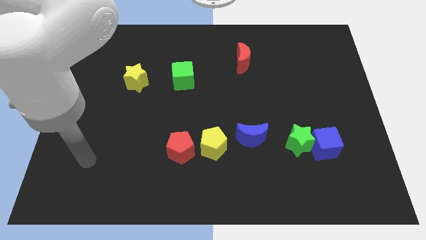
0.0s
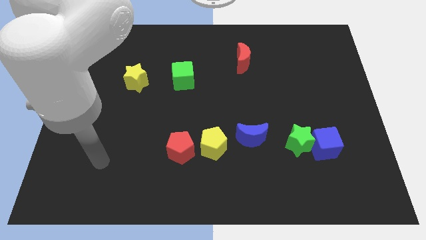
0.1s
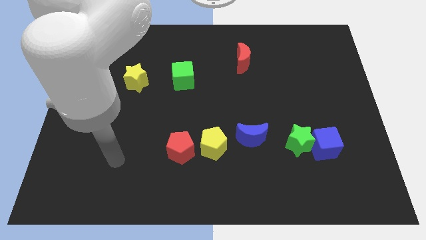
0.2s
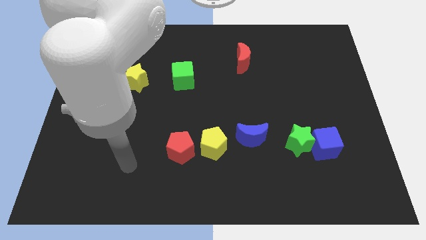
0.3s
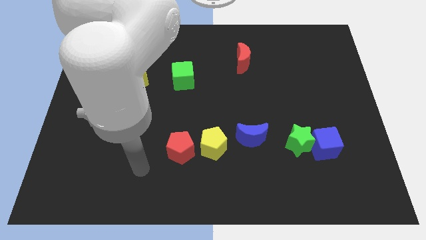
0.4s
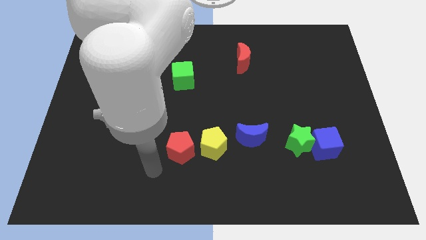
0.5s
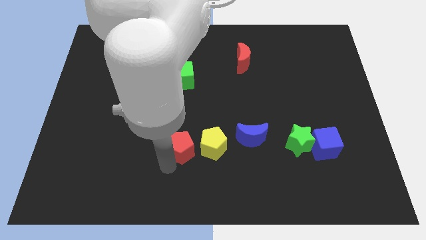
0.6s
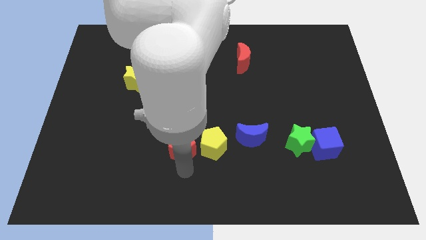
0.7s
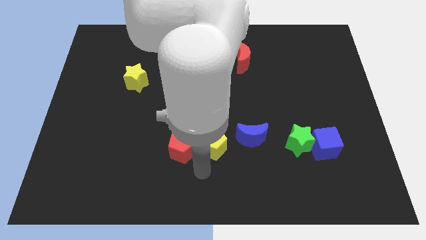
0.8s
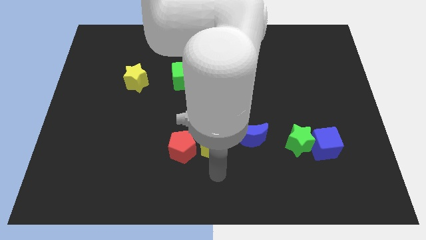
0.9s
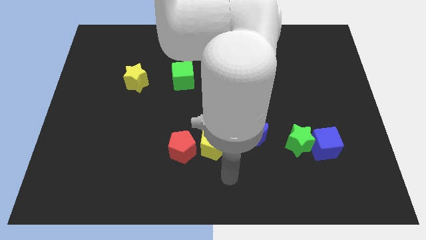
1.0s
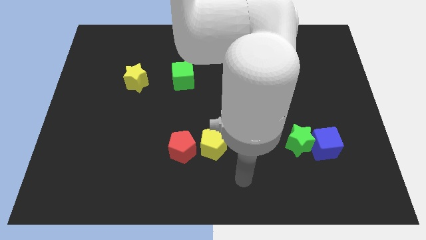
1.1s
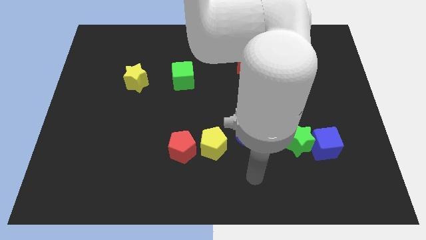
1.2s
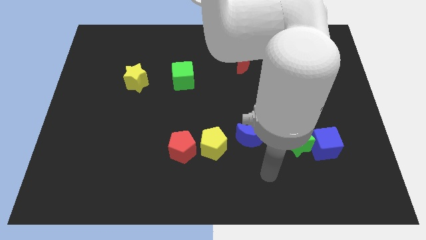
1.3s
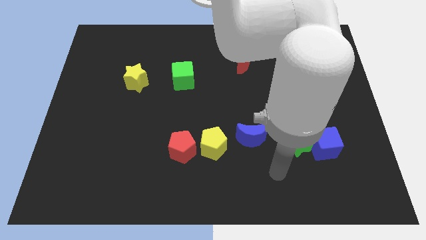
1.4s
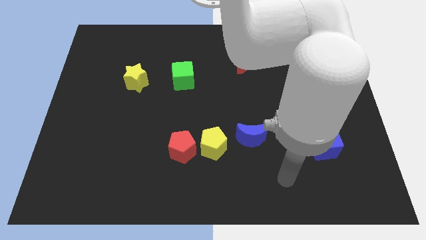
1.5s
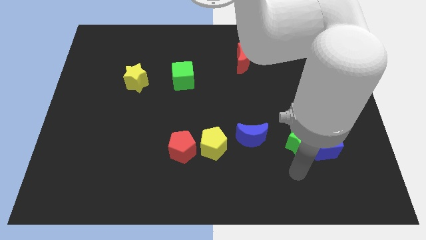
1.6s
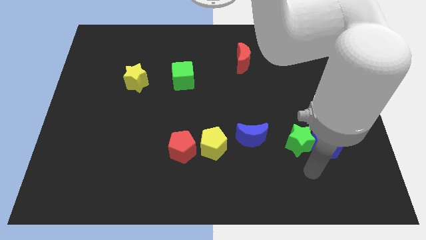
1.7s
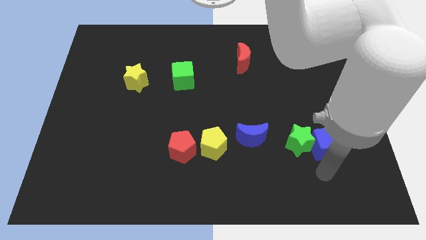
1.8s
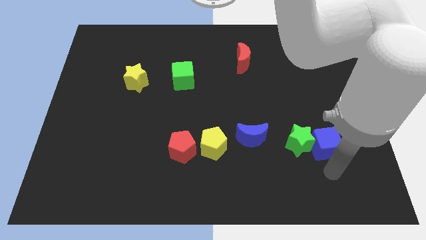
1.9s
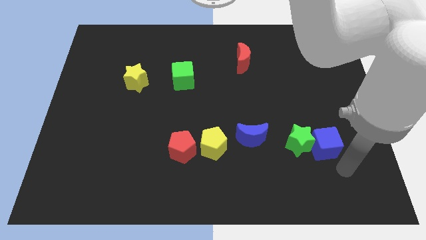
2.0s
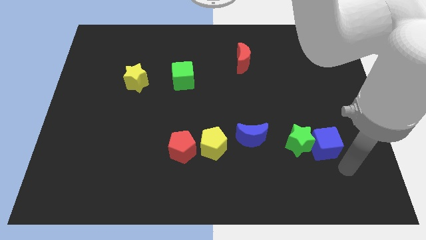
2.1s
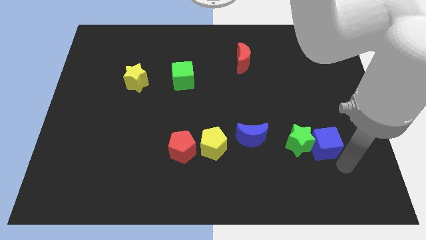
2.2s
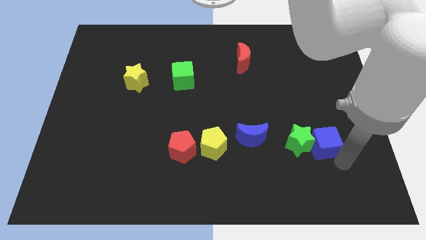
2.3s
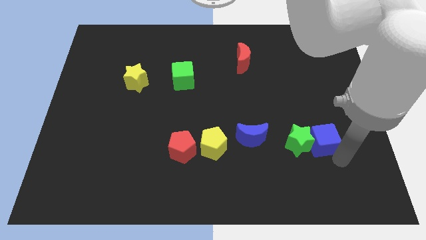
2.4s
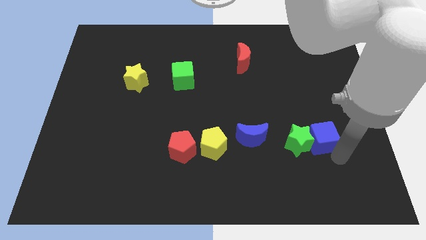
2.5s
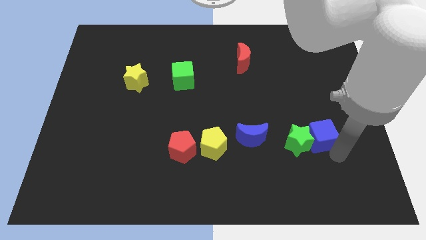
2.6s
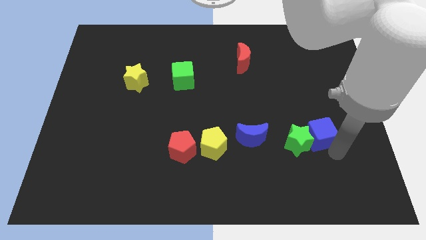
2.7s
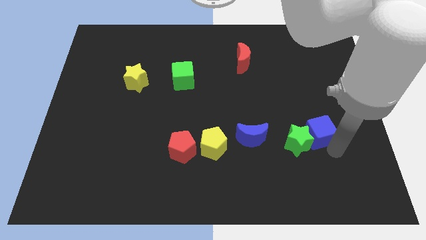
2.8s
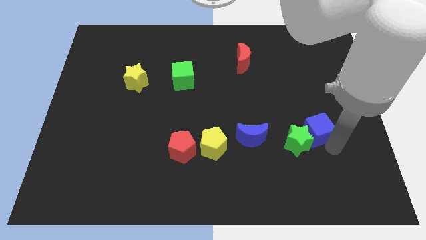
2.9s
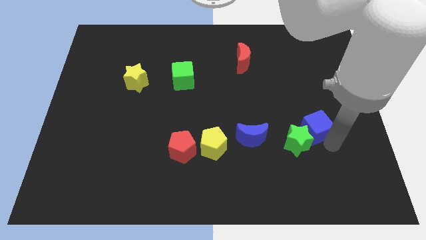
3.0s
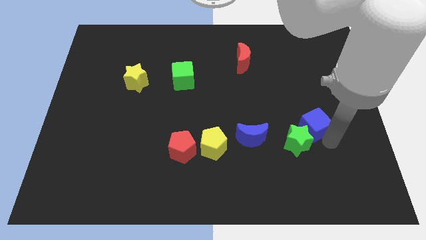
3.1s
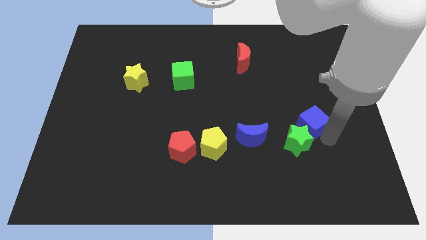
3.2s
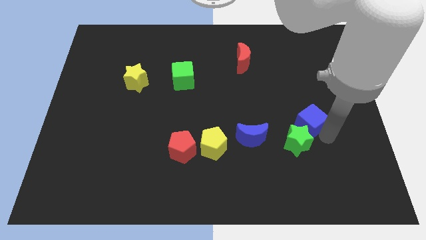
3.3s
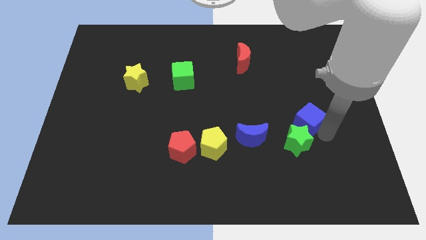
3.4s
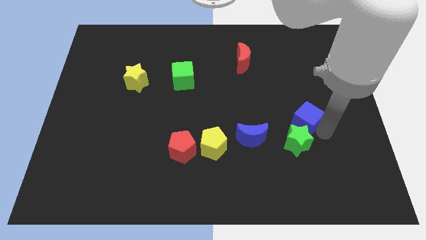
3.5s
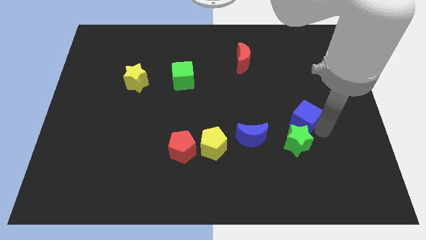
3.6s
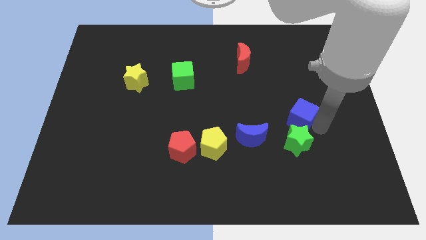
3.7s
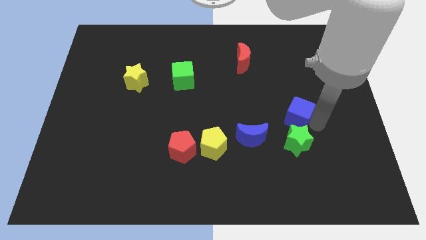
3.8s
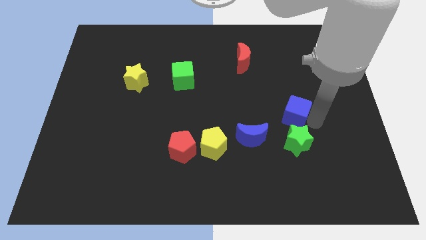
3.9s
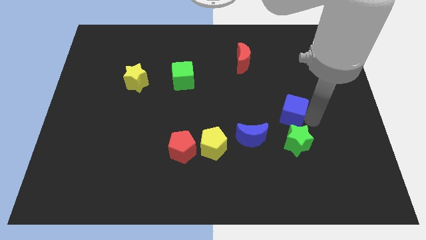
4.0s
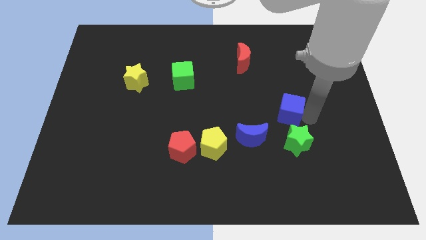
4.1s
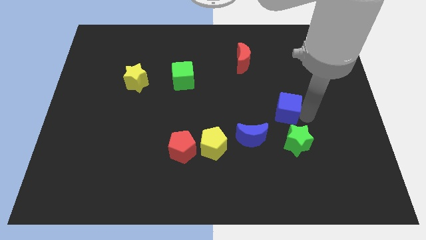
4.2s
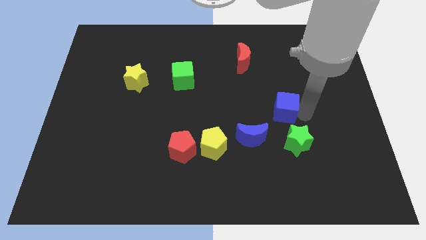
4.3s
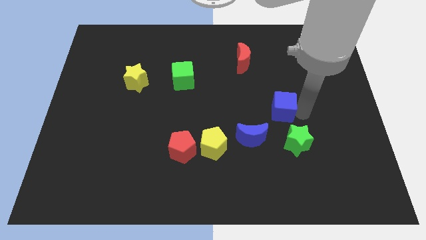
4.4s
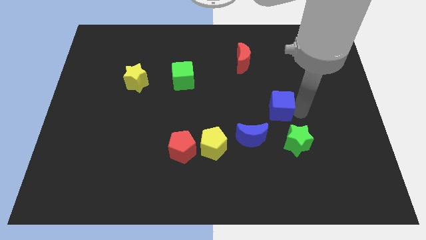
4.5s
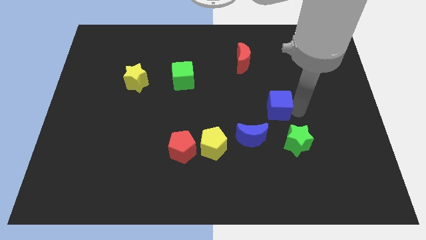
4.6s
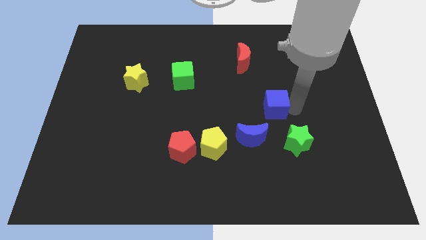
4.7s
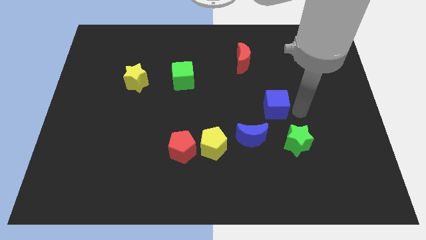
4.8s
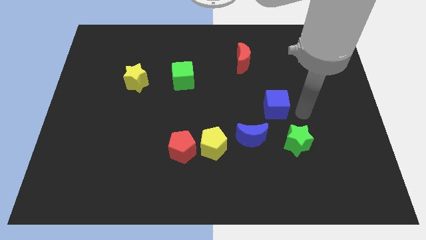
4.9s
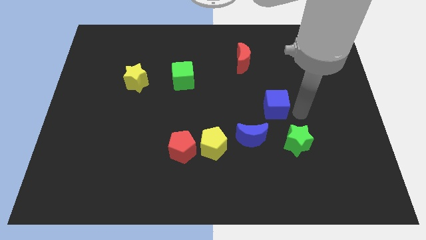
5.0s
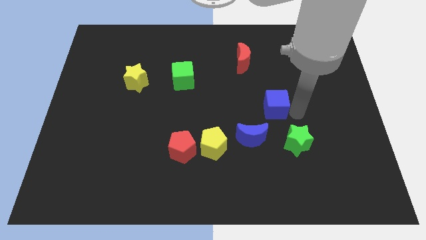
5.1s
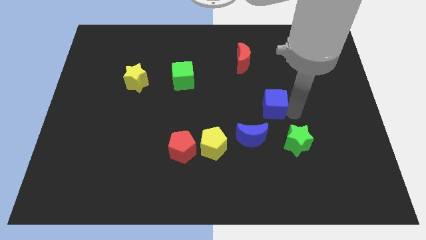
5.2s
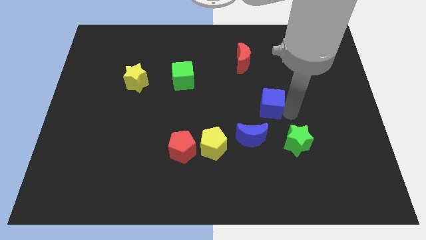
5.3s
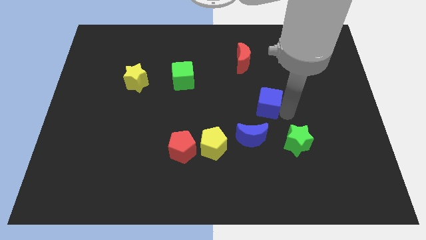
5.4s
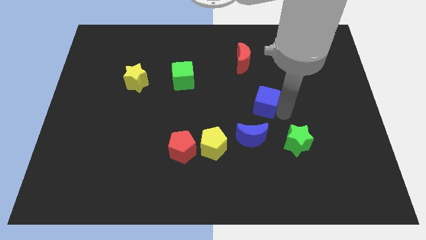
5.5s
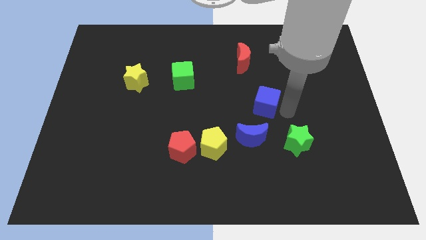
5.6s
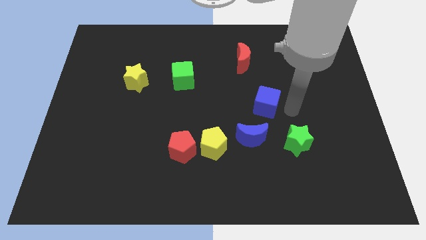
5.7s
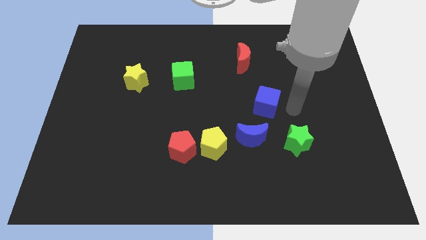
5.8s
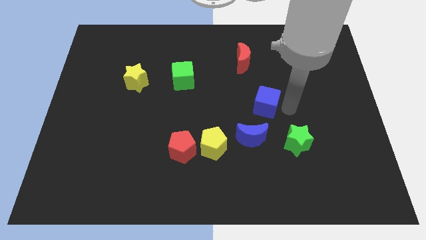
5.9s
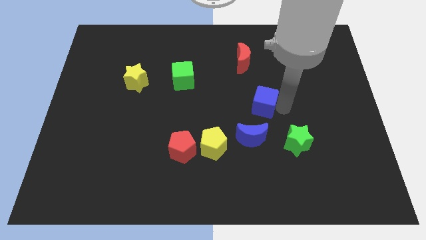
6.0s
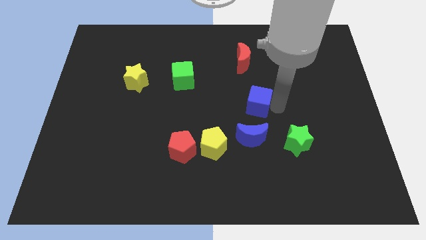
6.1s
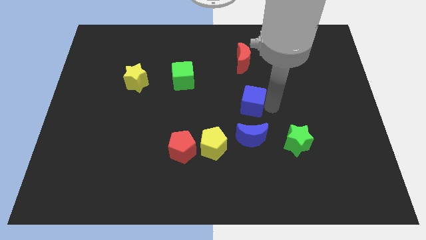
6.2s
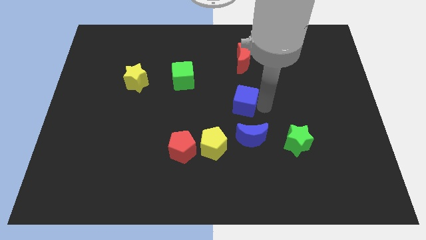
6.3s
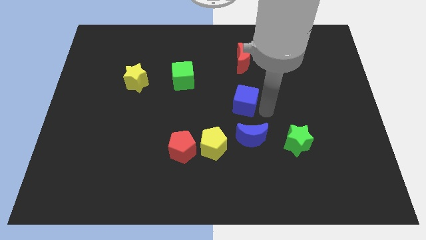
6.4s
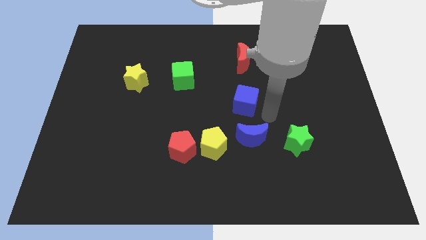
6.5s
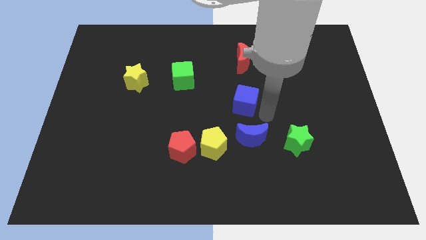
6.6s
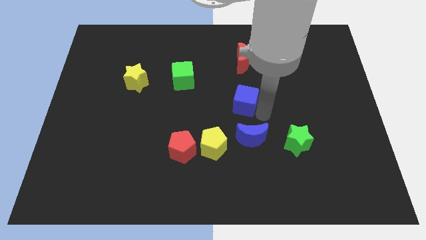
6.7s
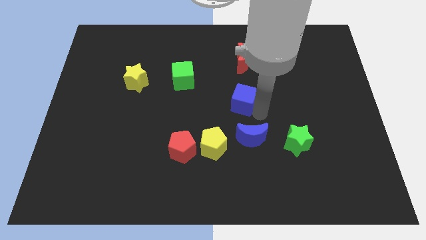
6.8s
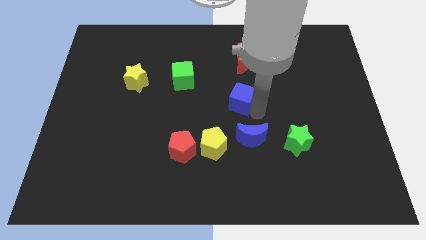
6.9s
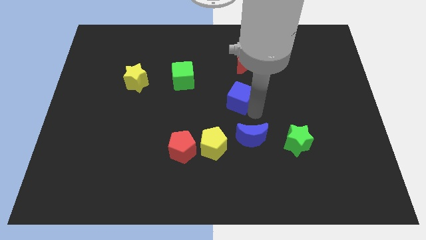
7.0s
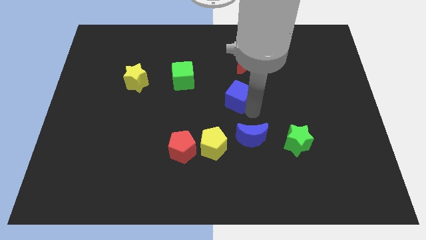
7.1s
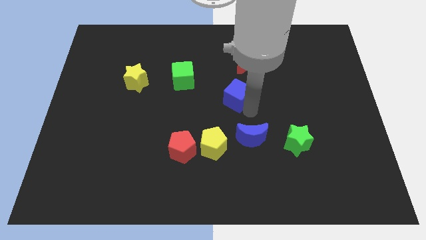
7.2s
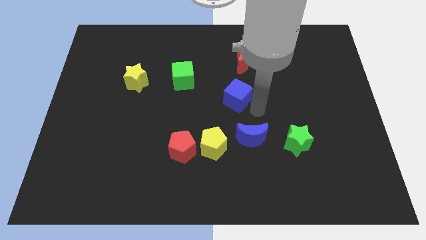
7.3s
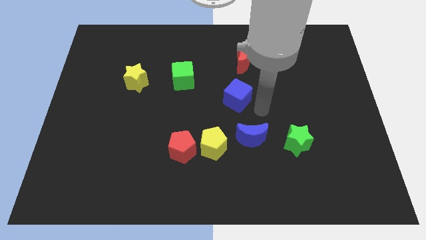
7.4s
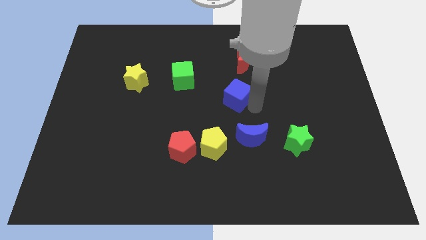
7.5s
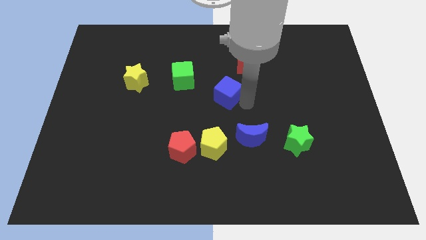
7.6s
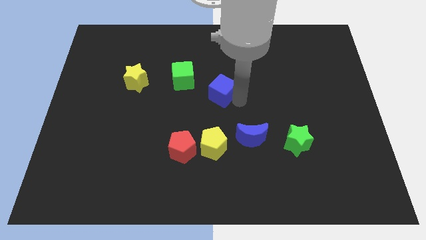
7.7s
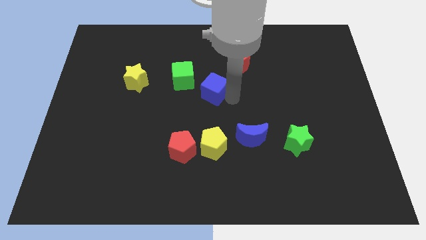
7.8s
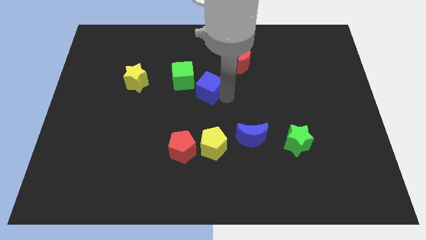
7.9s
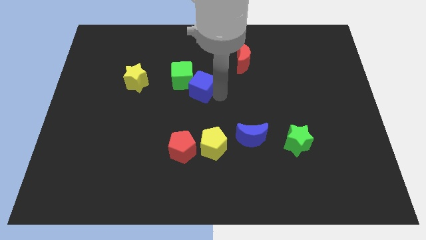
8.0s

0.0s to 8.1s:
slide the blue cube close to the green cube
